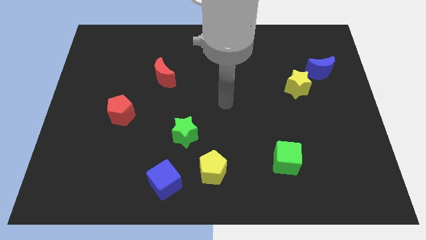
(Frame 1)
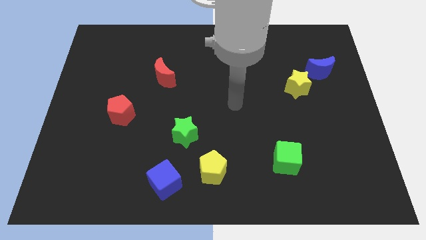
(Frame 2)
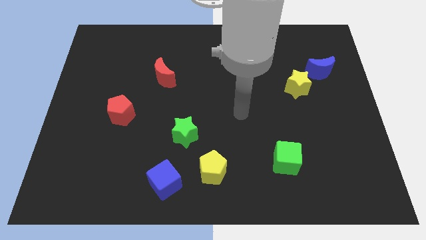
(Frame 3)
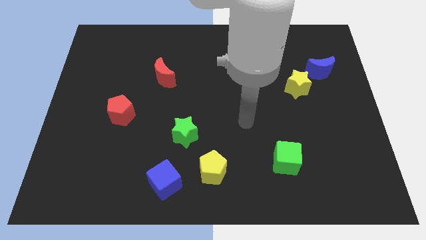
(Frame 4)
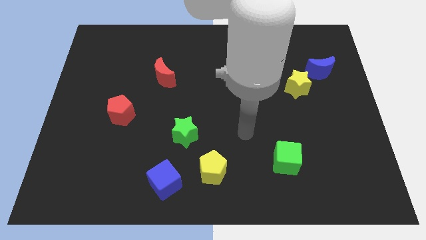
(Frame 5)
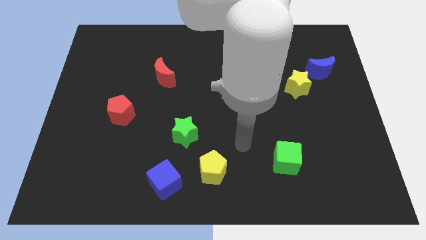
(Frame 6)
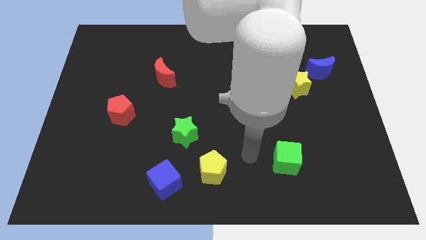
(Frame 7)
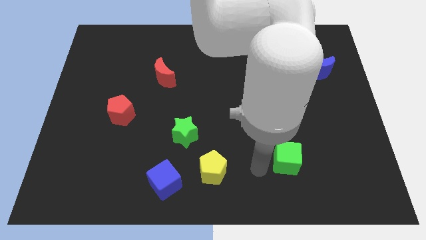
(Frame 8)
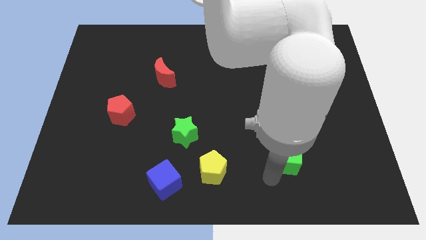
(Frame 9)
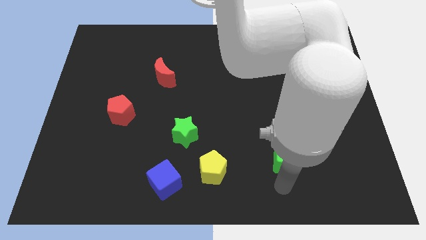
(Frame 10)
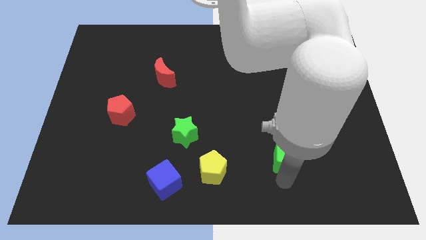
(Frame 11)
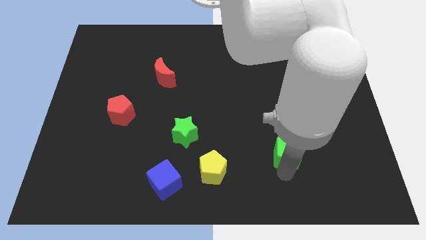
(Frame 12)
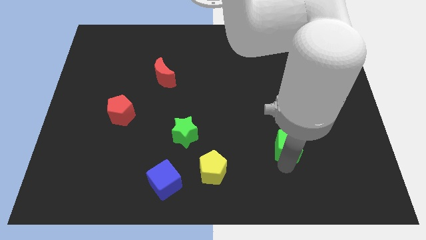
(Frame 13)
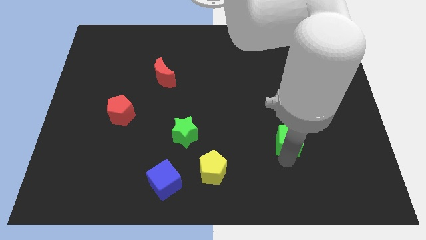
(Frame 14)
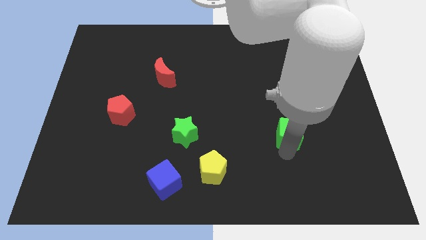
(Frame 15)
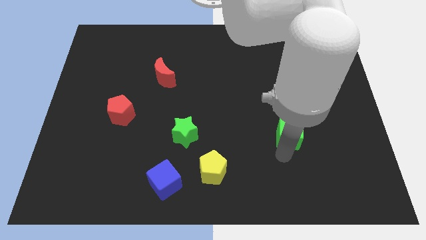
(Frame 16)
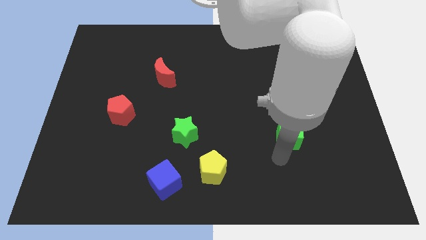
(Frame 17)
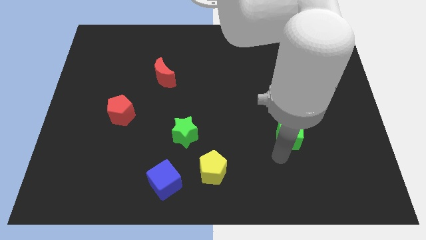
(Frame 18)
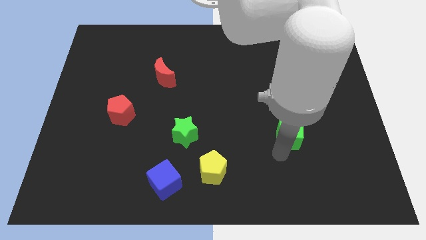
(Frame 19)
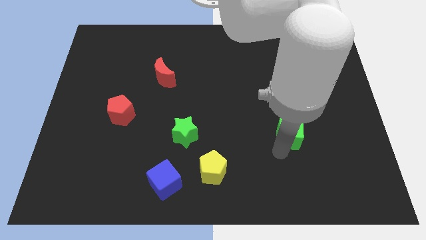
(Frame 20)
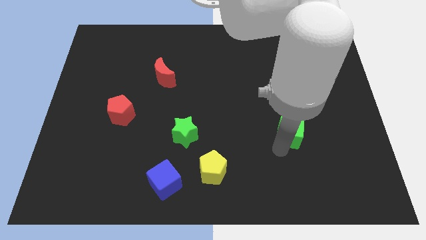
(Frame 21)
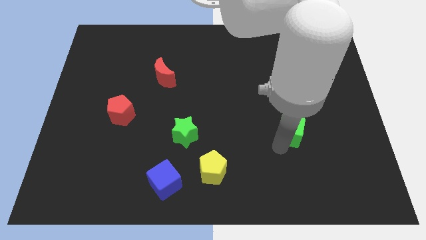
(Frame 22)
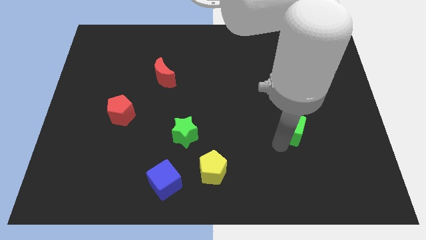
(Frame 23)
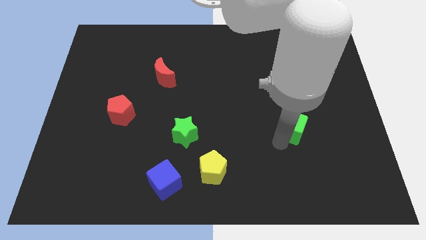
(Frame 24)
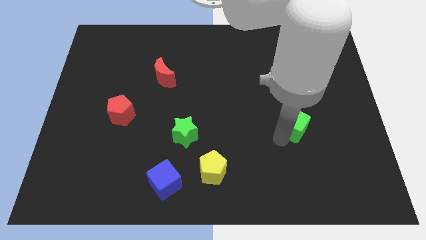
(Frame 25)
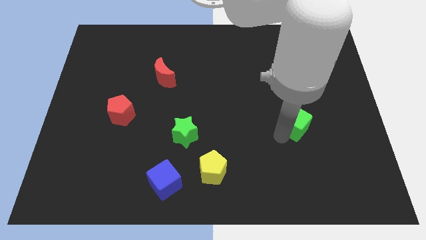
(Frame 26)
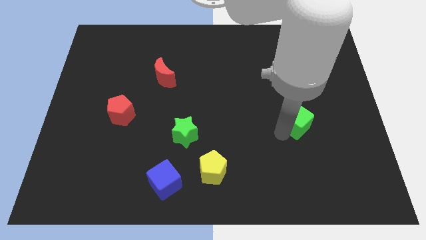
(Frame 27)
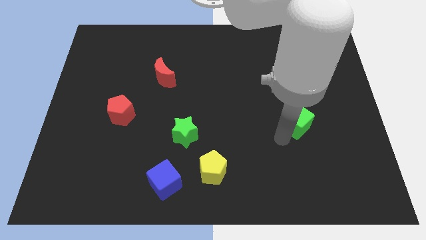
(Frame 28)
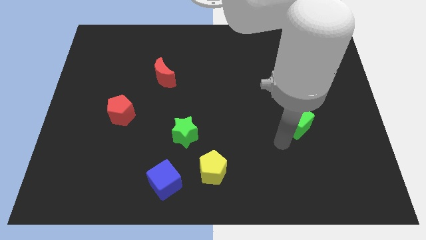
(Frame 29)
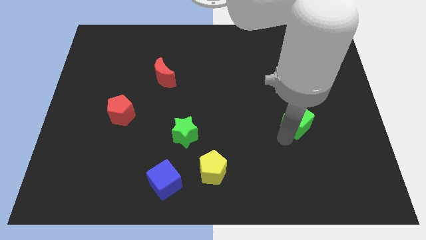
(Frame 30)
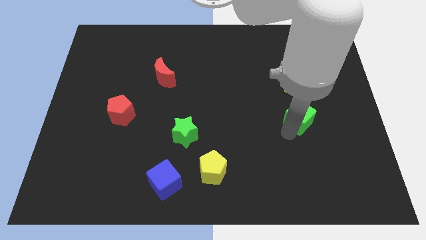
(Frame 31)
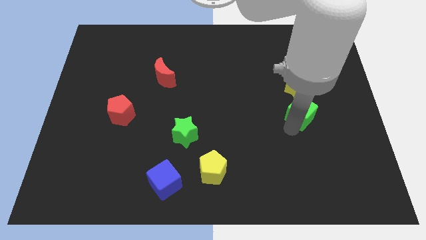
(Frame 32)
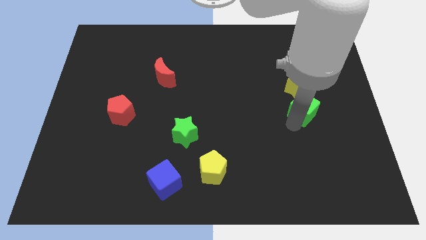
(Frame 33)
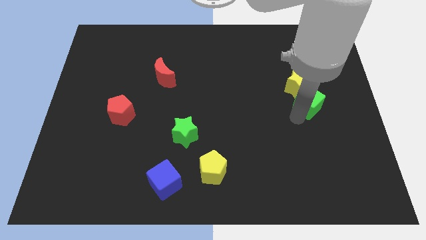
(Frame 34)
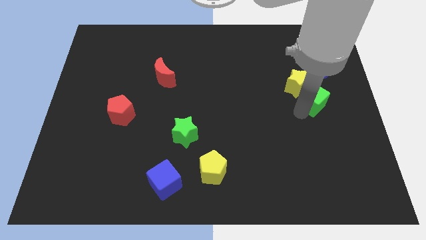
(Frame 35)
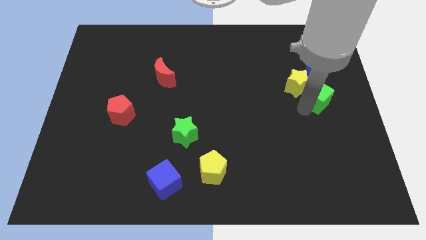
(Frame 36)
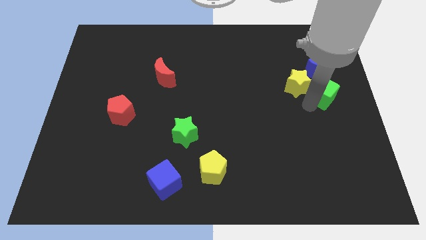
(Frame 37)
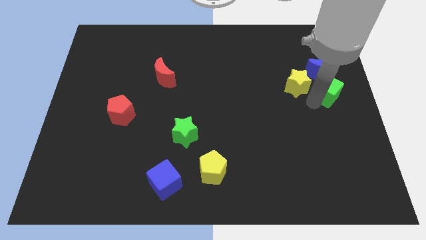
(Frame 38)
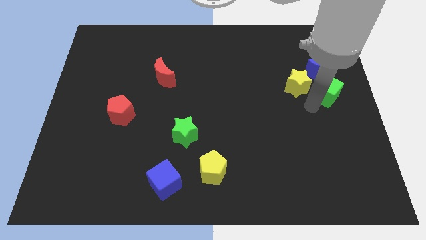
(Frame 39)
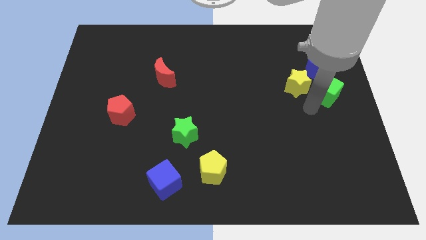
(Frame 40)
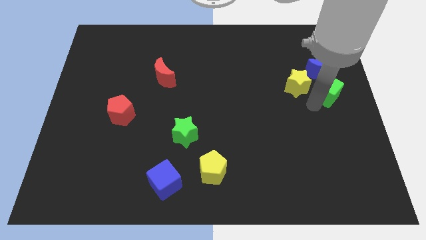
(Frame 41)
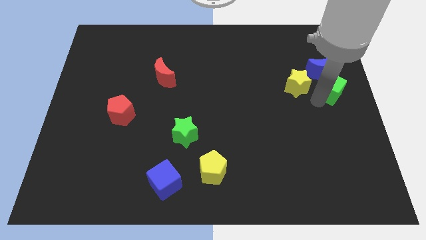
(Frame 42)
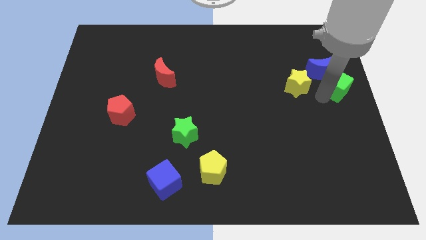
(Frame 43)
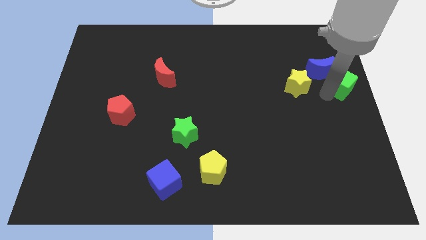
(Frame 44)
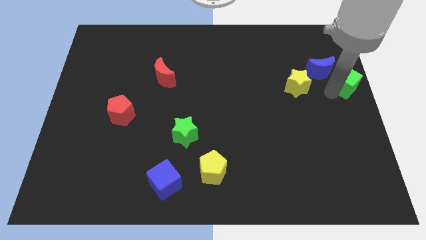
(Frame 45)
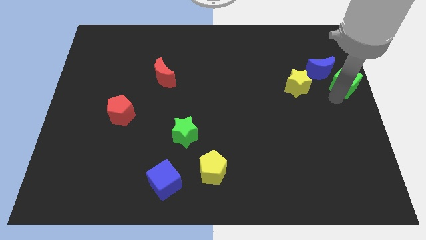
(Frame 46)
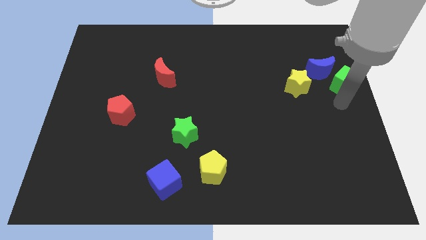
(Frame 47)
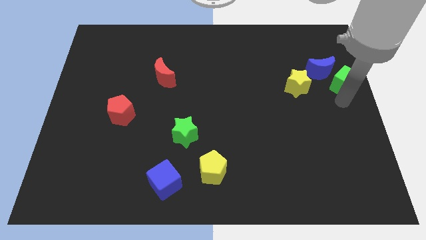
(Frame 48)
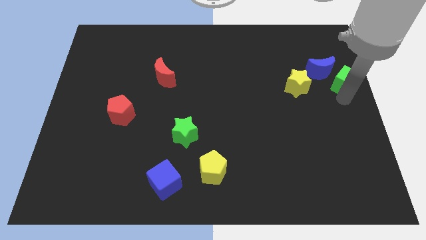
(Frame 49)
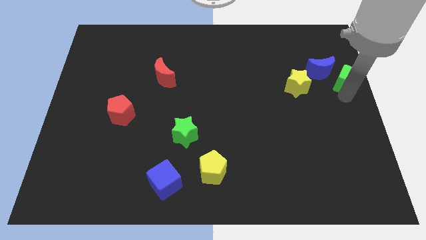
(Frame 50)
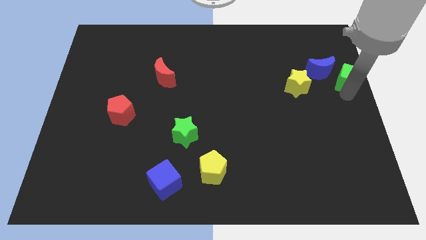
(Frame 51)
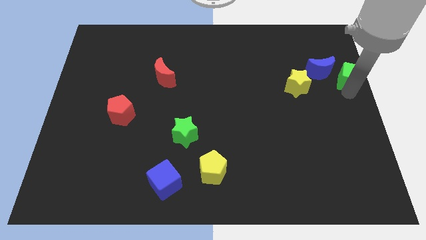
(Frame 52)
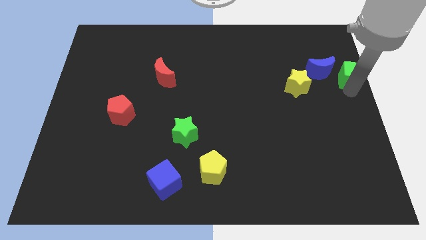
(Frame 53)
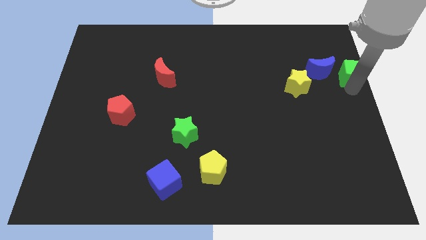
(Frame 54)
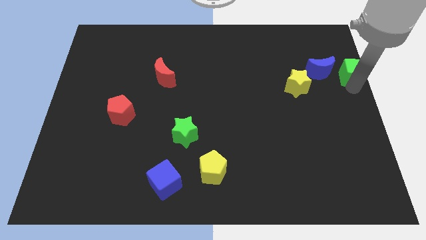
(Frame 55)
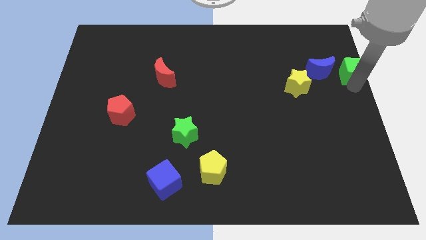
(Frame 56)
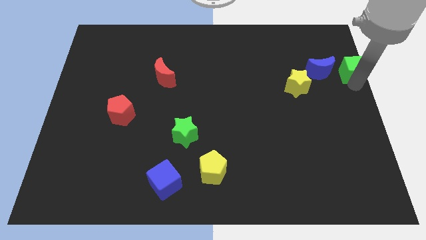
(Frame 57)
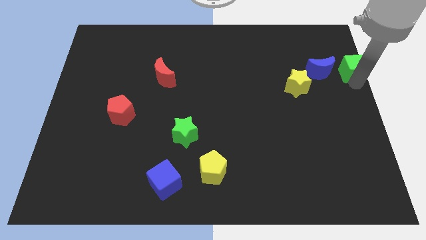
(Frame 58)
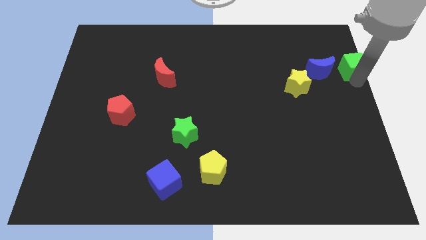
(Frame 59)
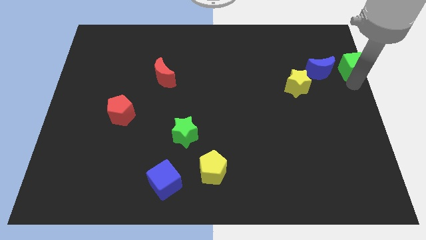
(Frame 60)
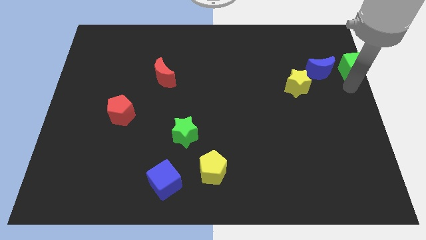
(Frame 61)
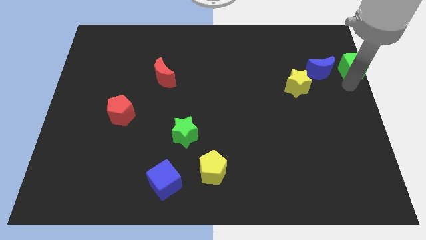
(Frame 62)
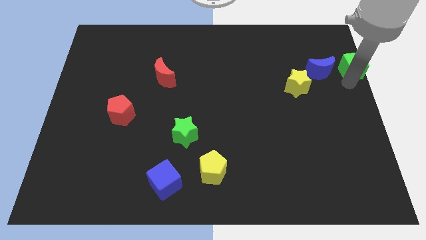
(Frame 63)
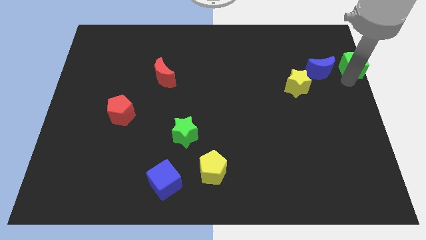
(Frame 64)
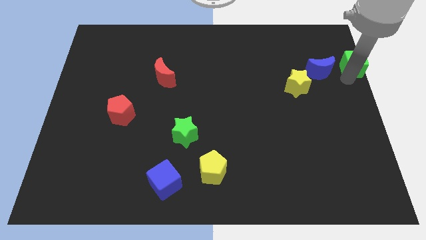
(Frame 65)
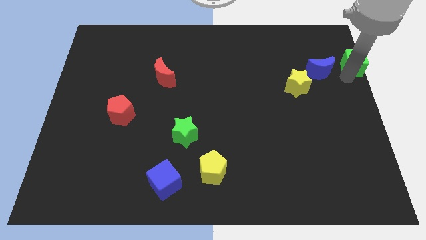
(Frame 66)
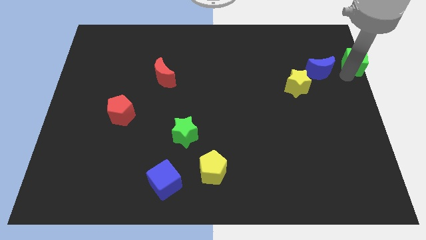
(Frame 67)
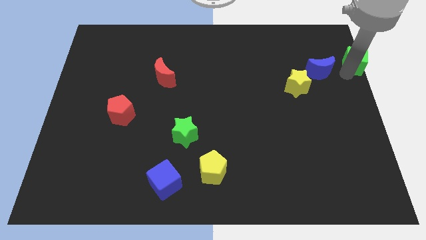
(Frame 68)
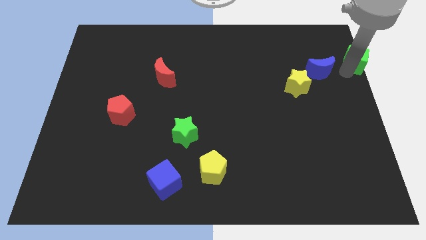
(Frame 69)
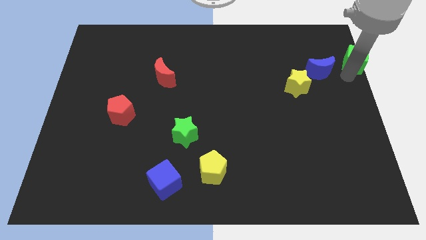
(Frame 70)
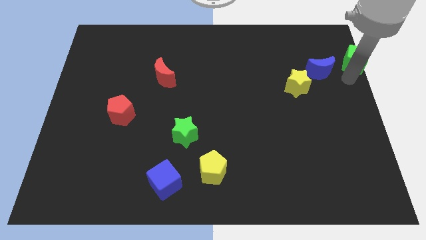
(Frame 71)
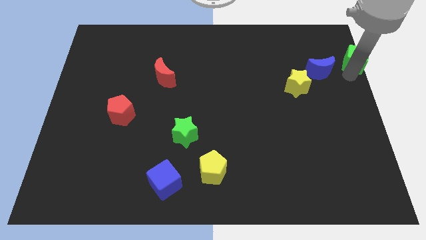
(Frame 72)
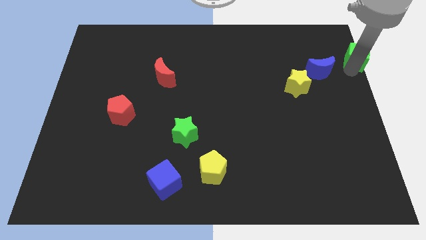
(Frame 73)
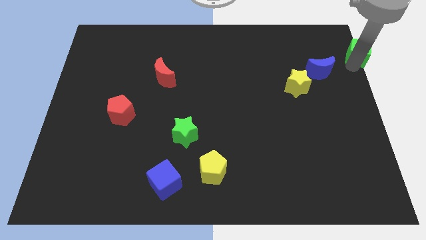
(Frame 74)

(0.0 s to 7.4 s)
move the green cube to the upper right corner
